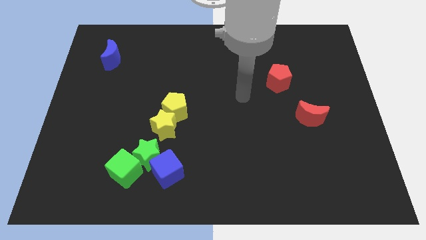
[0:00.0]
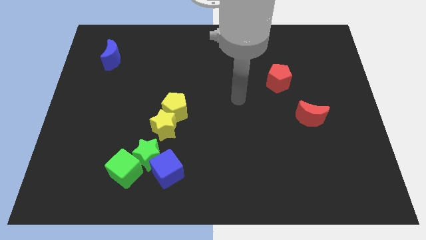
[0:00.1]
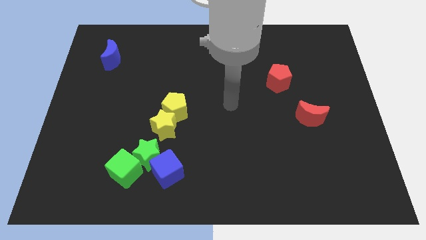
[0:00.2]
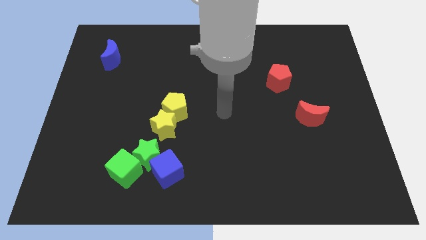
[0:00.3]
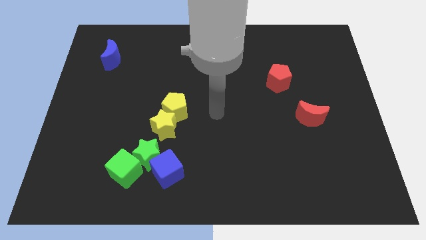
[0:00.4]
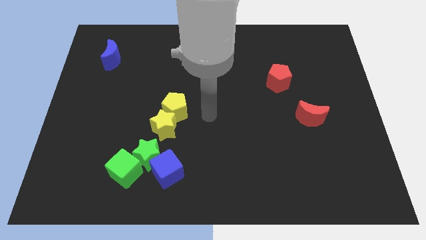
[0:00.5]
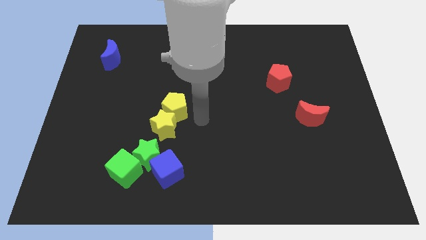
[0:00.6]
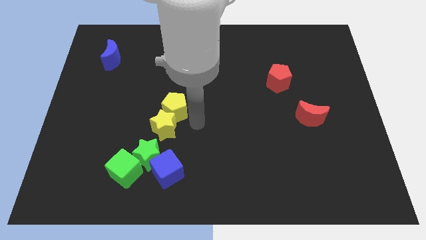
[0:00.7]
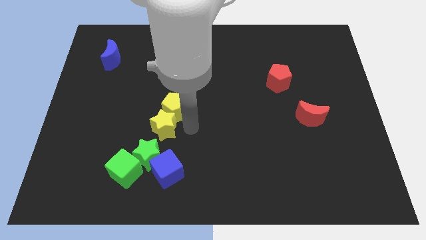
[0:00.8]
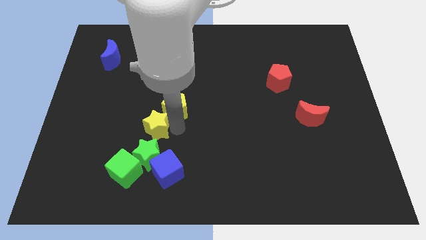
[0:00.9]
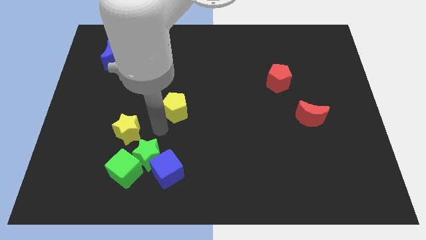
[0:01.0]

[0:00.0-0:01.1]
move the yellow pentagon away from the yellow star

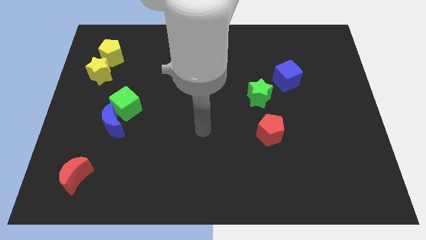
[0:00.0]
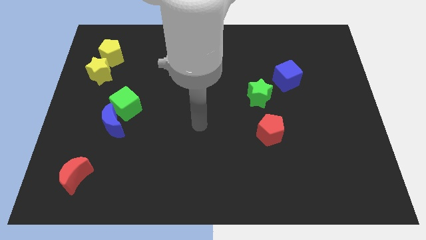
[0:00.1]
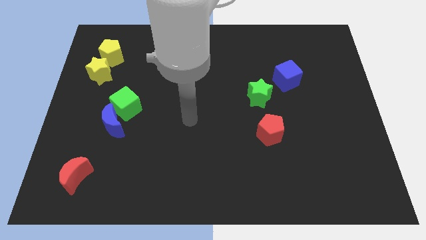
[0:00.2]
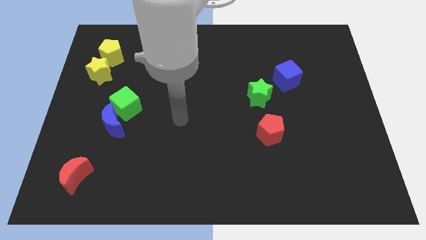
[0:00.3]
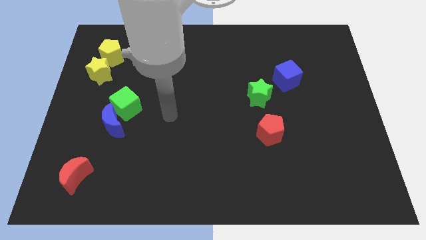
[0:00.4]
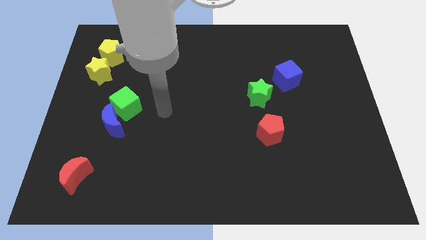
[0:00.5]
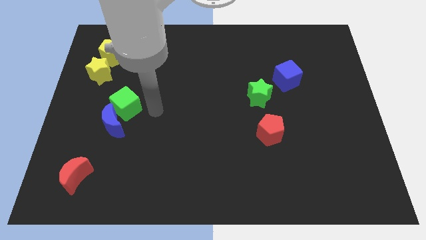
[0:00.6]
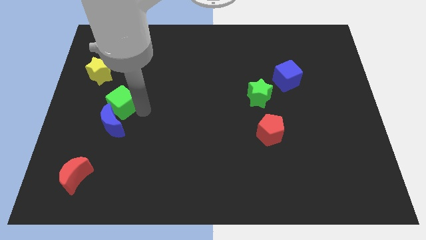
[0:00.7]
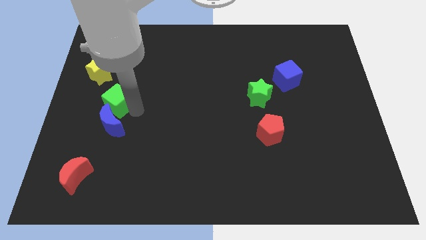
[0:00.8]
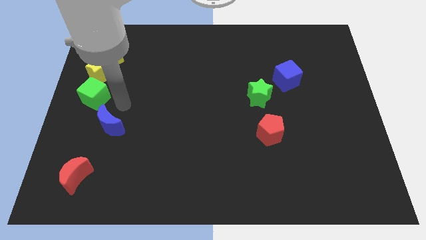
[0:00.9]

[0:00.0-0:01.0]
separate the blue moon from the green cube

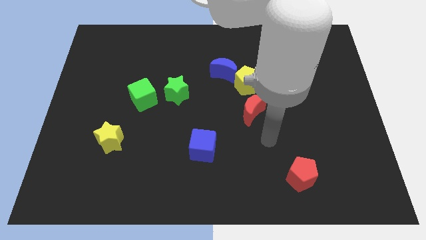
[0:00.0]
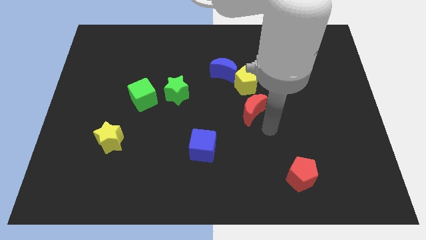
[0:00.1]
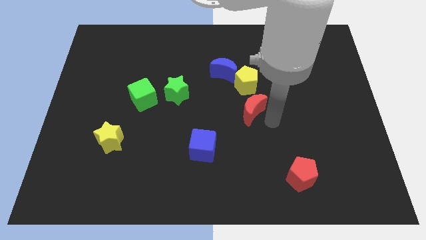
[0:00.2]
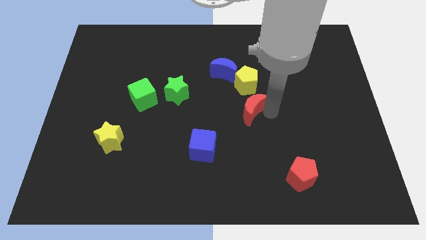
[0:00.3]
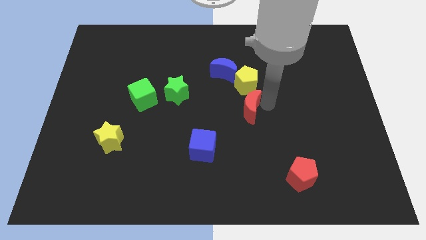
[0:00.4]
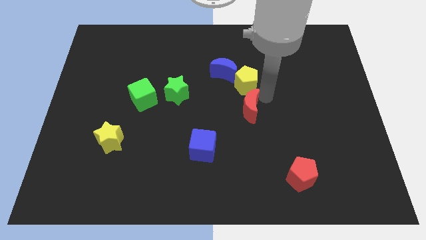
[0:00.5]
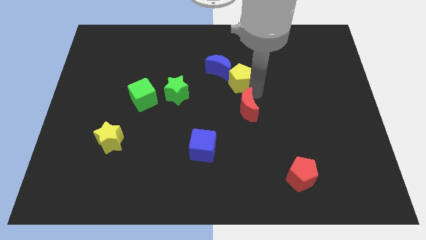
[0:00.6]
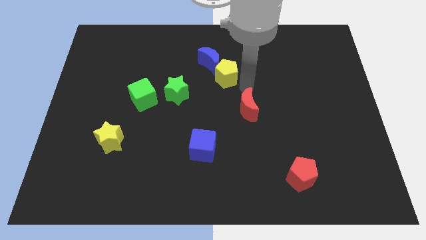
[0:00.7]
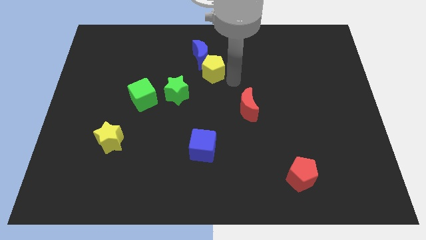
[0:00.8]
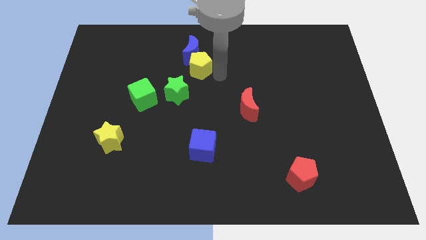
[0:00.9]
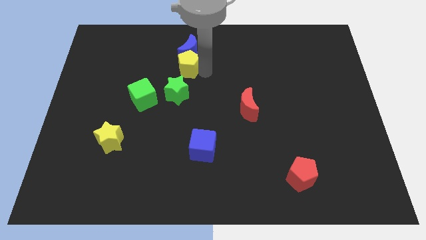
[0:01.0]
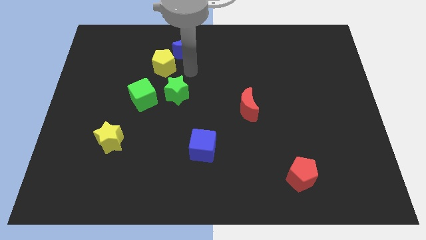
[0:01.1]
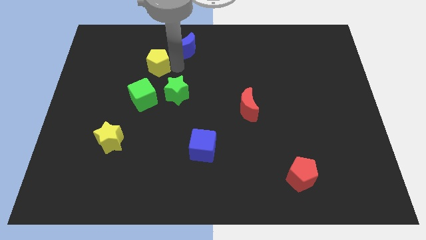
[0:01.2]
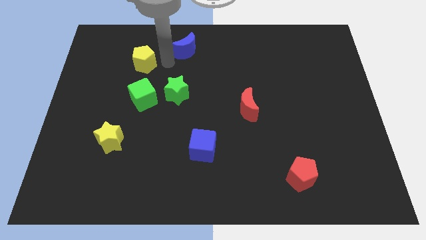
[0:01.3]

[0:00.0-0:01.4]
separate the blue moon from the yellow pentagon

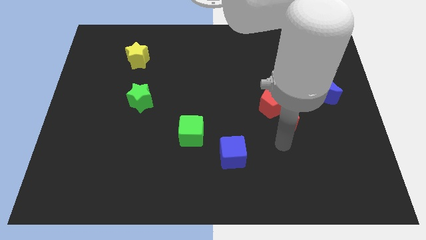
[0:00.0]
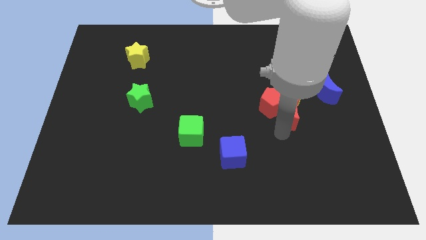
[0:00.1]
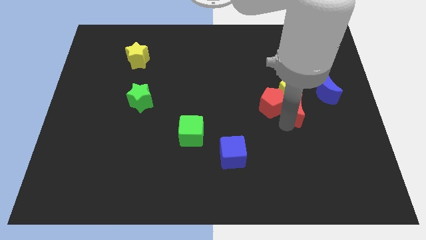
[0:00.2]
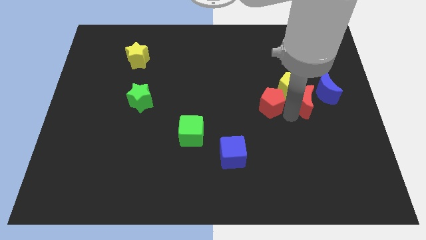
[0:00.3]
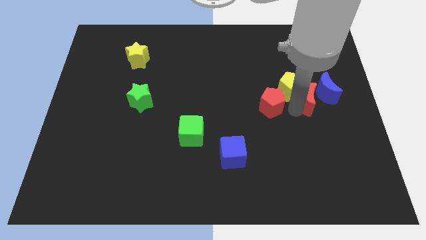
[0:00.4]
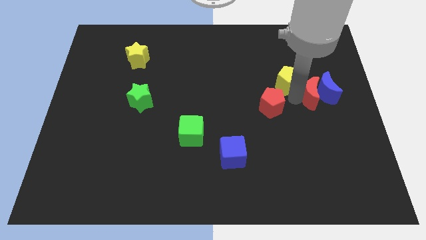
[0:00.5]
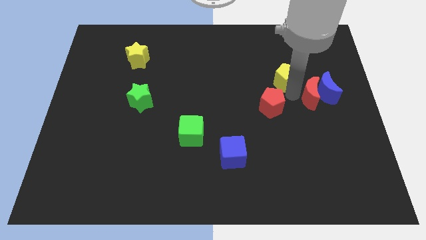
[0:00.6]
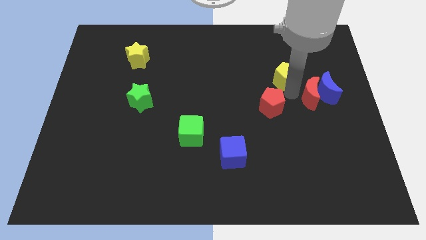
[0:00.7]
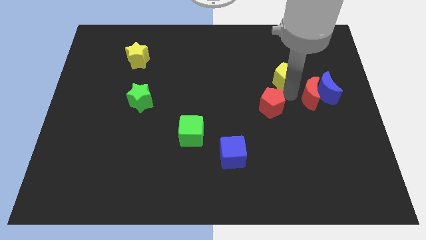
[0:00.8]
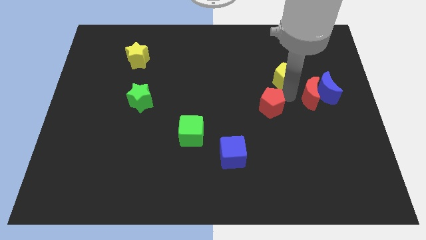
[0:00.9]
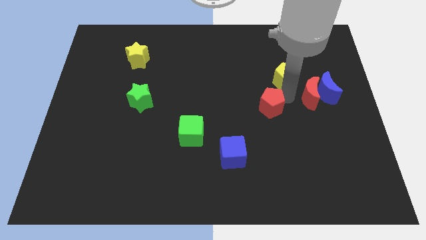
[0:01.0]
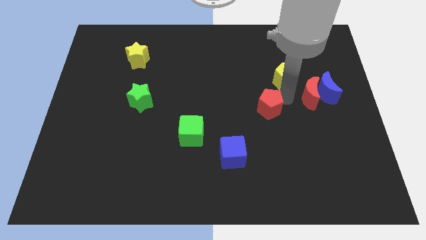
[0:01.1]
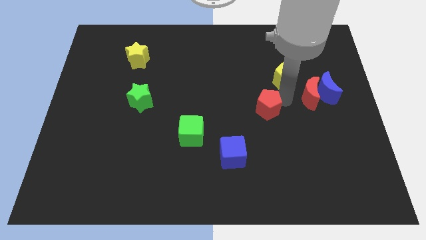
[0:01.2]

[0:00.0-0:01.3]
move the red pentagon away from the red moon and yellow pentagon

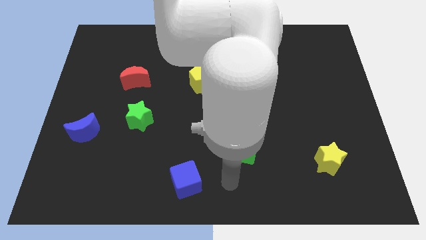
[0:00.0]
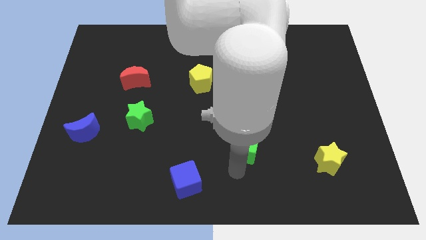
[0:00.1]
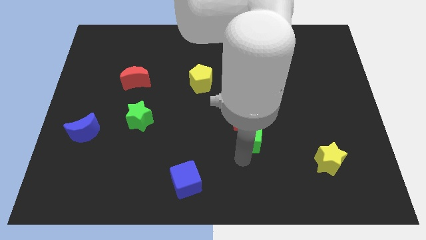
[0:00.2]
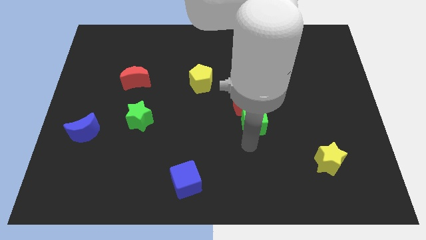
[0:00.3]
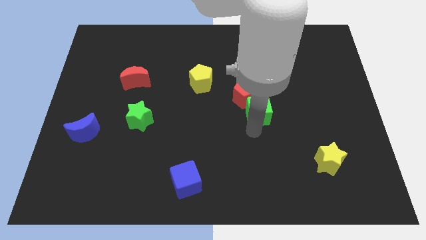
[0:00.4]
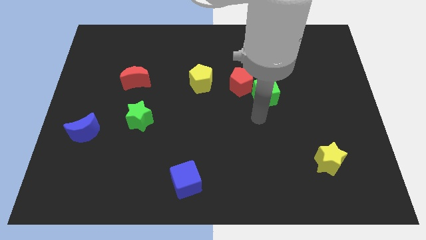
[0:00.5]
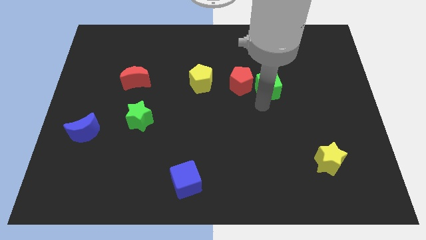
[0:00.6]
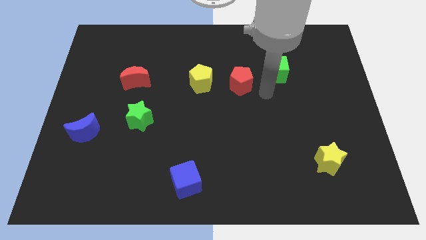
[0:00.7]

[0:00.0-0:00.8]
separate the red pentagon from the green cube

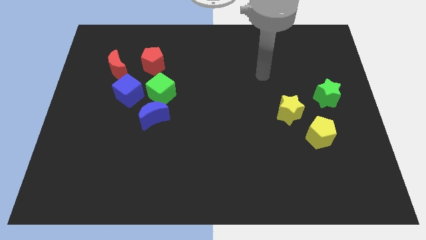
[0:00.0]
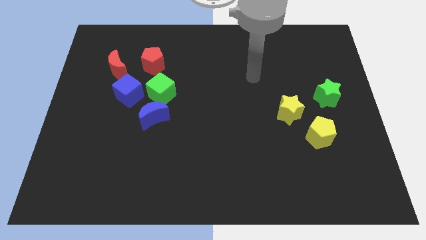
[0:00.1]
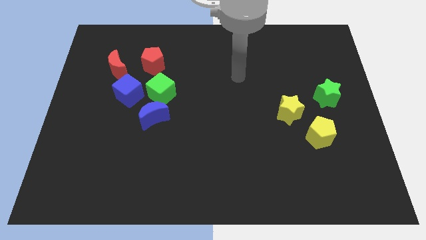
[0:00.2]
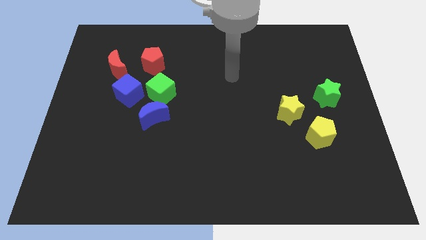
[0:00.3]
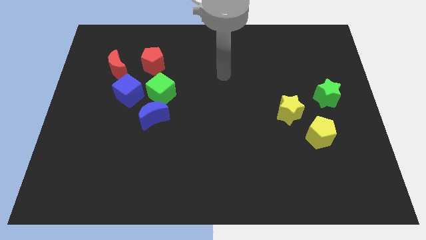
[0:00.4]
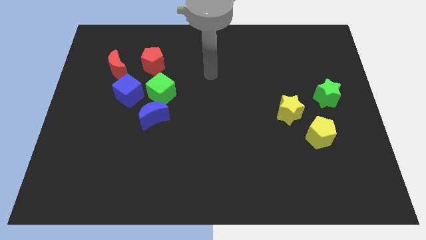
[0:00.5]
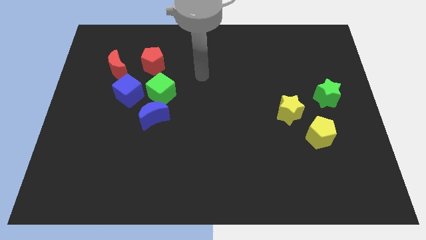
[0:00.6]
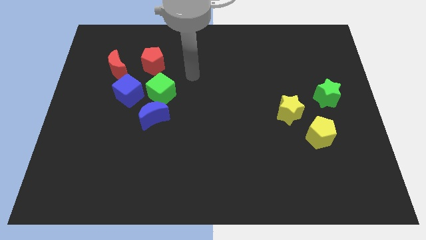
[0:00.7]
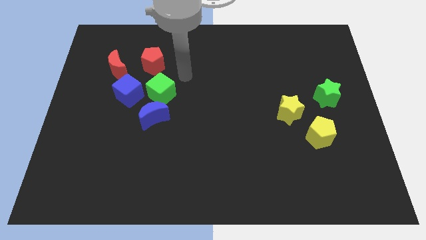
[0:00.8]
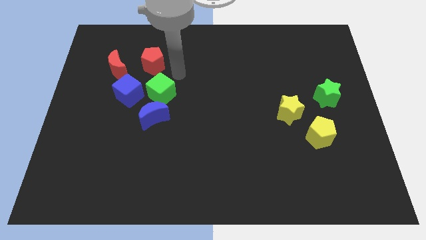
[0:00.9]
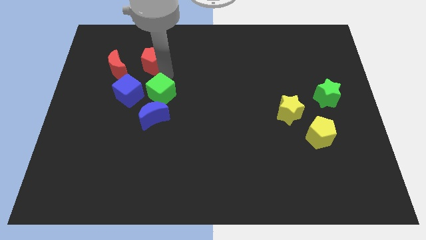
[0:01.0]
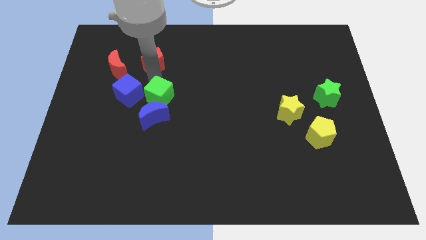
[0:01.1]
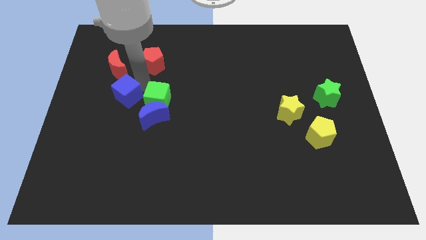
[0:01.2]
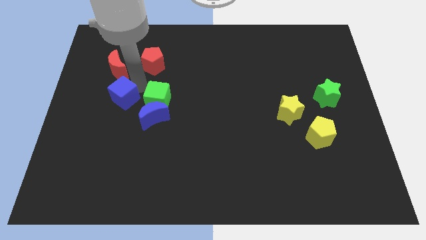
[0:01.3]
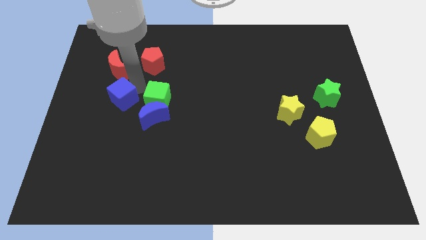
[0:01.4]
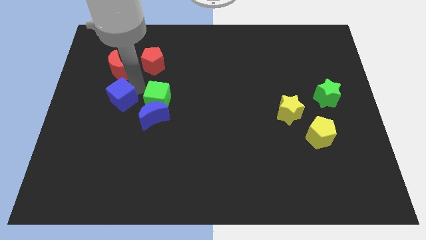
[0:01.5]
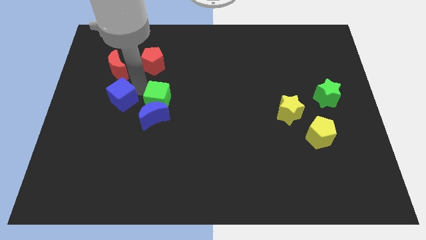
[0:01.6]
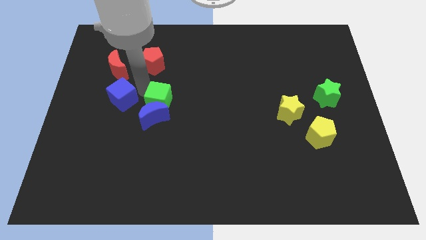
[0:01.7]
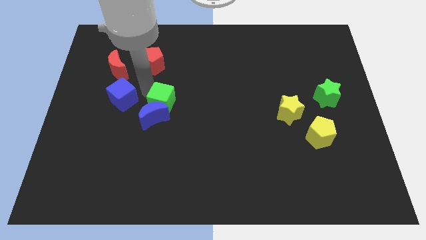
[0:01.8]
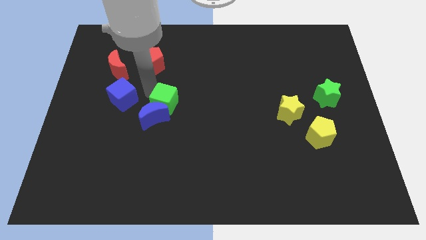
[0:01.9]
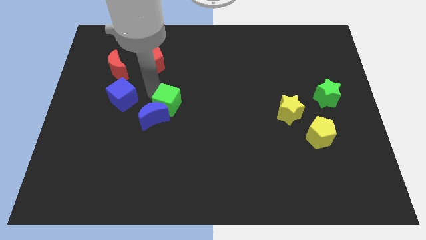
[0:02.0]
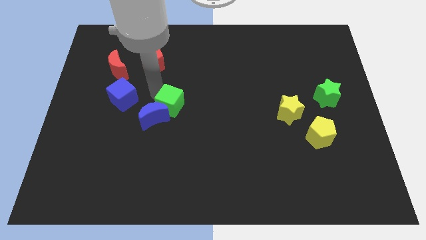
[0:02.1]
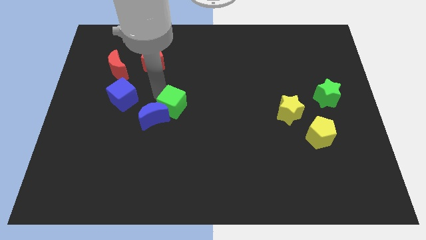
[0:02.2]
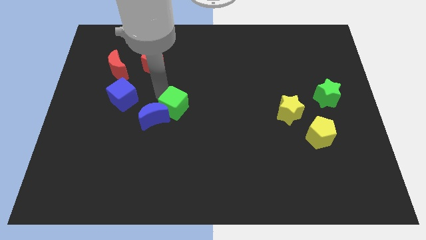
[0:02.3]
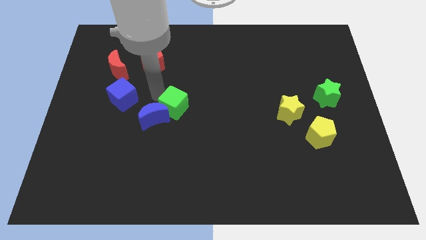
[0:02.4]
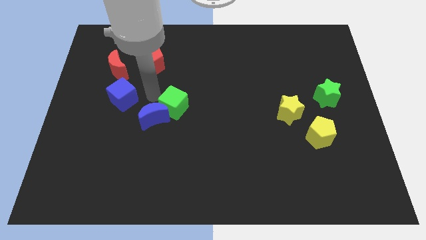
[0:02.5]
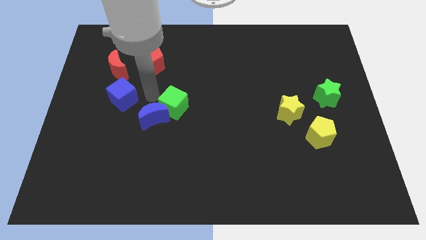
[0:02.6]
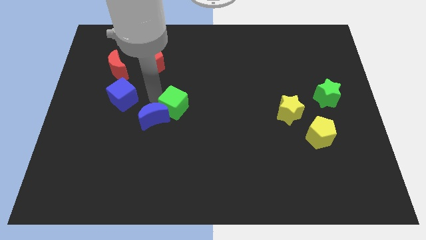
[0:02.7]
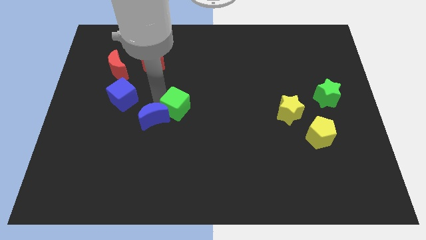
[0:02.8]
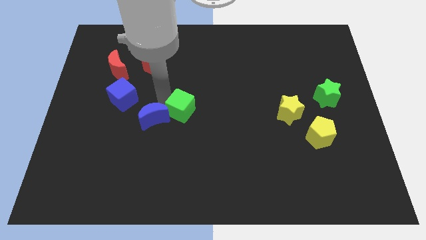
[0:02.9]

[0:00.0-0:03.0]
pull the green cube apart from the blue moon, blue cube, and red pentagon

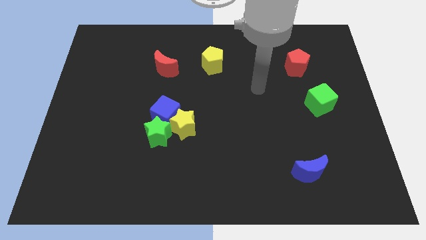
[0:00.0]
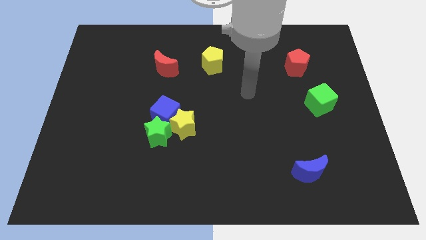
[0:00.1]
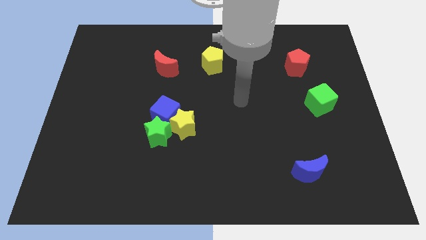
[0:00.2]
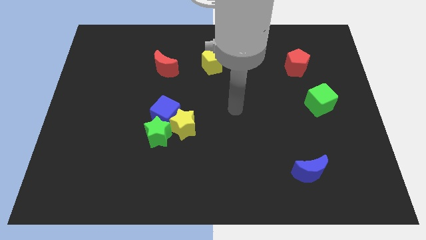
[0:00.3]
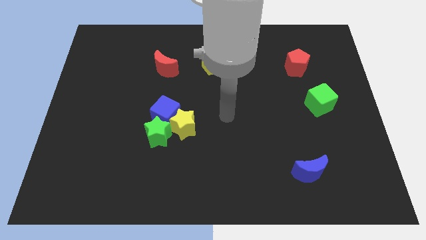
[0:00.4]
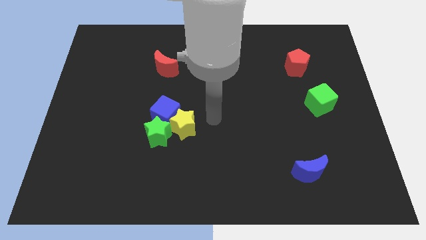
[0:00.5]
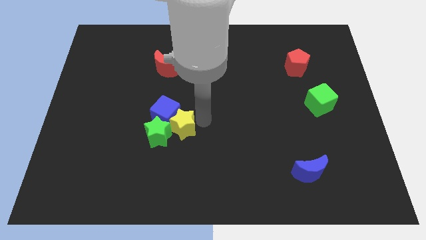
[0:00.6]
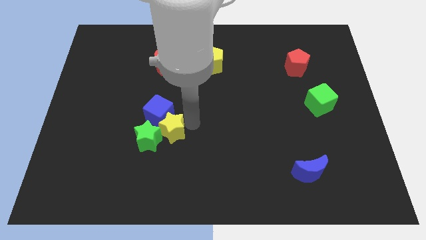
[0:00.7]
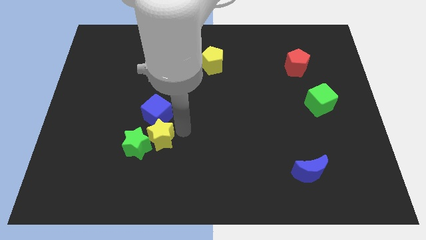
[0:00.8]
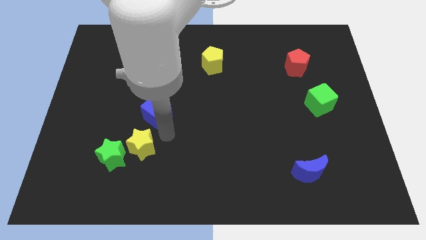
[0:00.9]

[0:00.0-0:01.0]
move the blue cube away from the yellow star and green star
